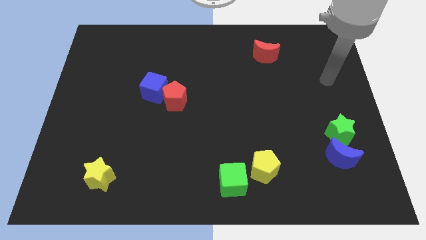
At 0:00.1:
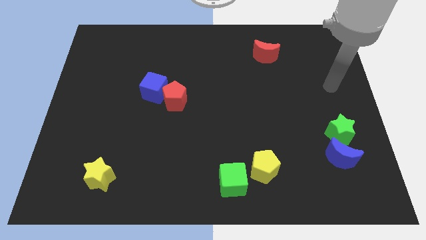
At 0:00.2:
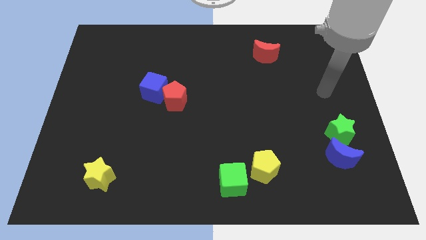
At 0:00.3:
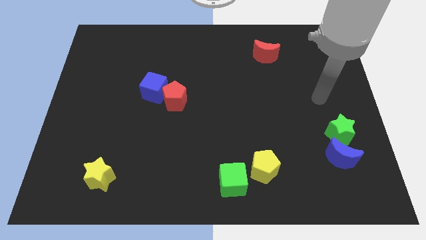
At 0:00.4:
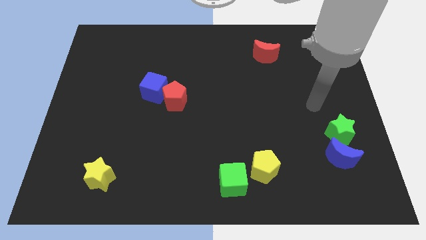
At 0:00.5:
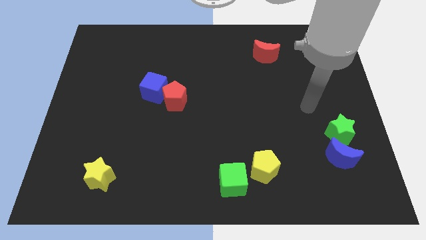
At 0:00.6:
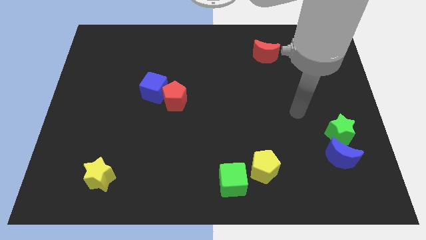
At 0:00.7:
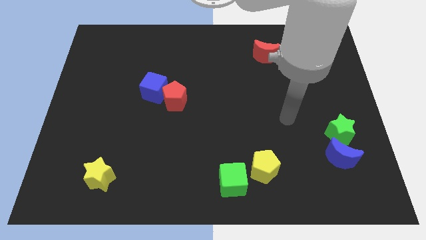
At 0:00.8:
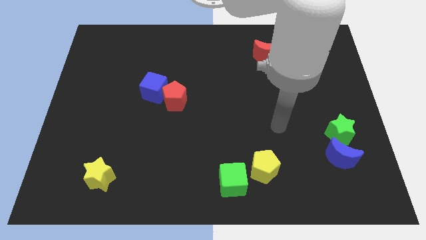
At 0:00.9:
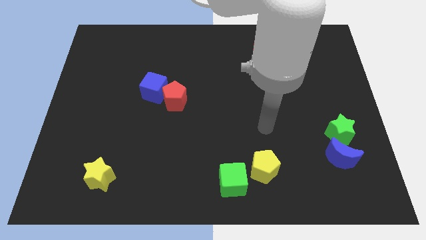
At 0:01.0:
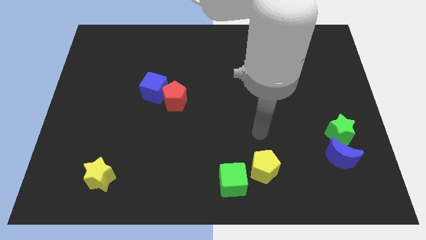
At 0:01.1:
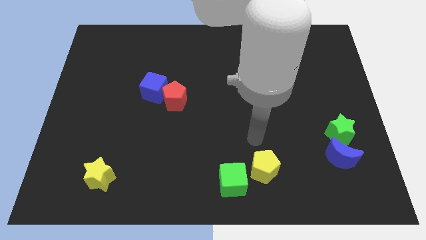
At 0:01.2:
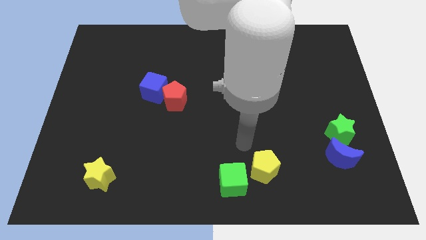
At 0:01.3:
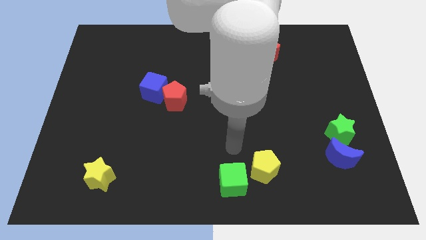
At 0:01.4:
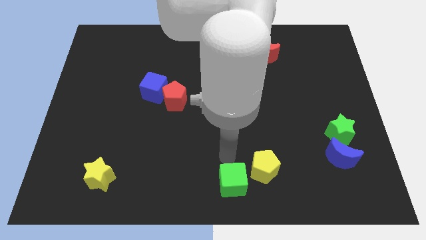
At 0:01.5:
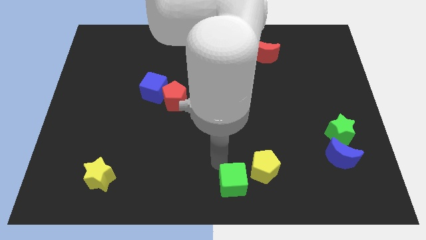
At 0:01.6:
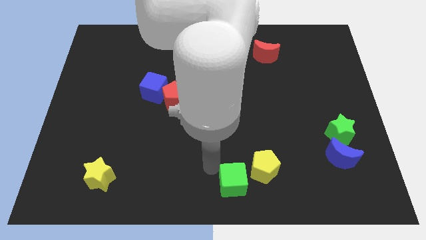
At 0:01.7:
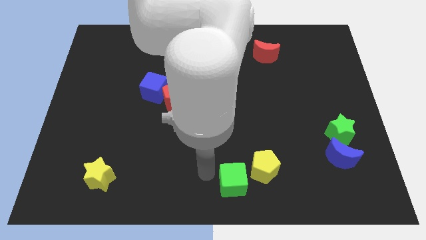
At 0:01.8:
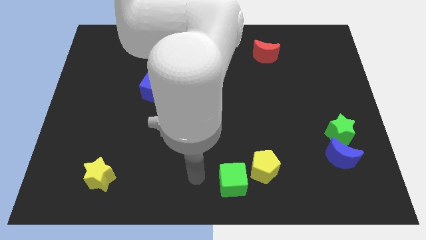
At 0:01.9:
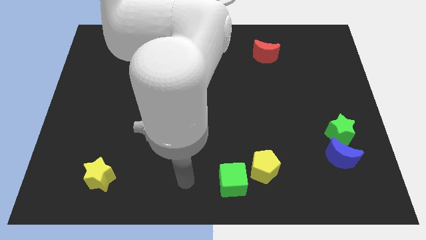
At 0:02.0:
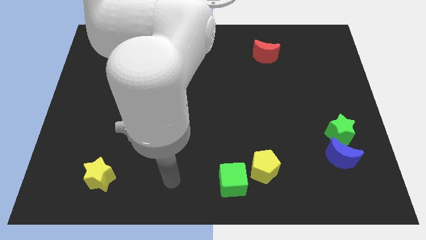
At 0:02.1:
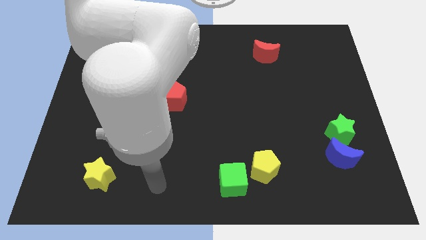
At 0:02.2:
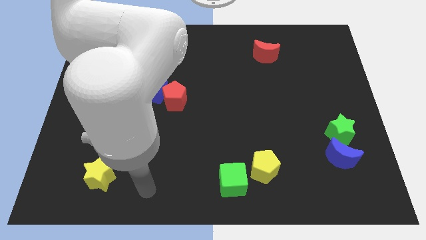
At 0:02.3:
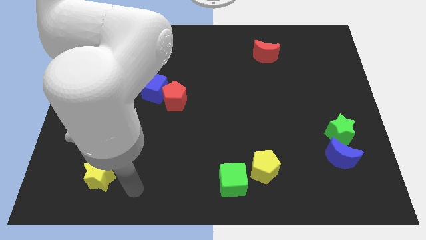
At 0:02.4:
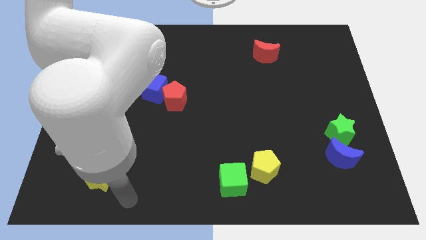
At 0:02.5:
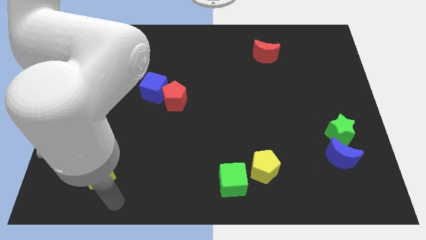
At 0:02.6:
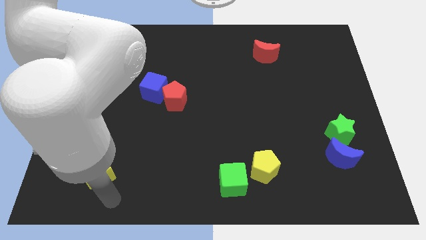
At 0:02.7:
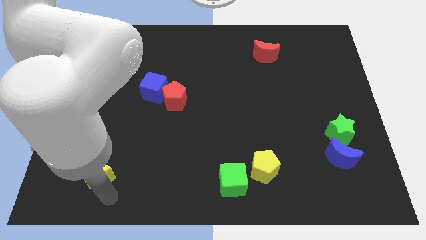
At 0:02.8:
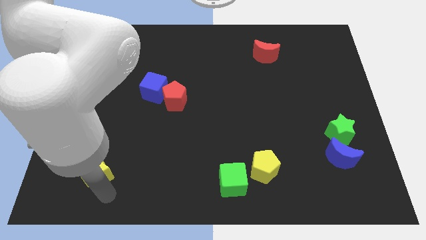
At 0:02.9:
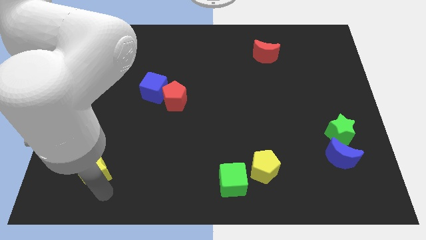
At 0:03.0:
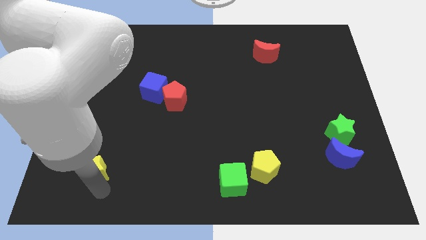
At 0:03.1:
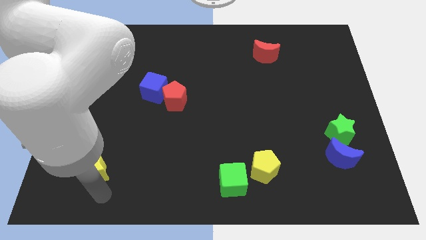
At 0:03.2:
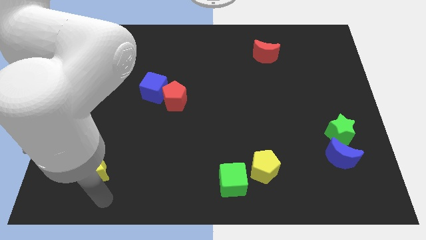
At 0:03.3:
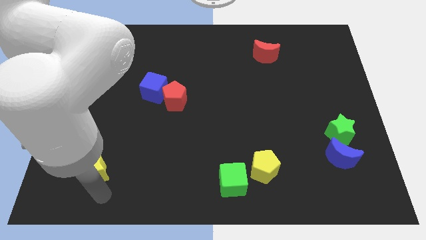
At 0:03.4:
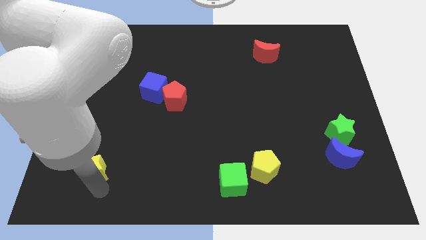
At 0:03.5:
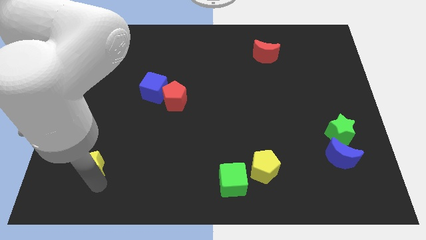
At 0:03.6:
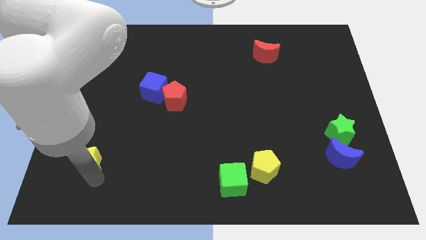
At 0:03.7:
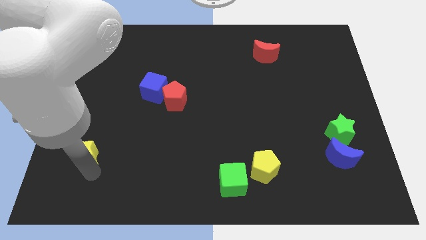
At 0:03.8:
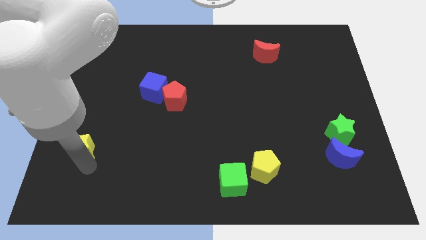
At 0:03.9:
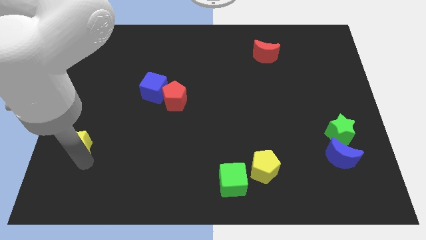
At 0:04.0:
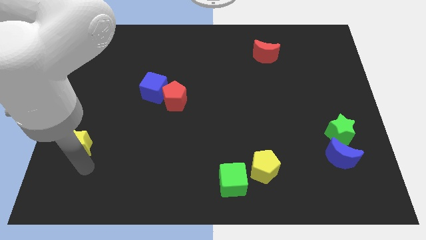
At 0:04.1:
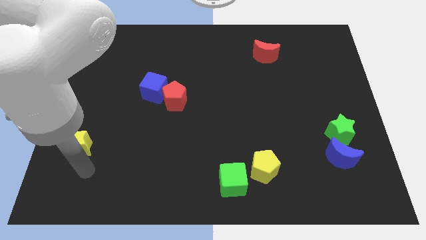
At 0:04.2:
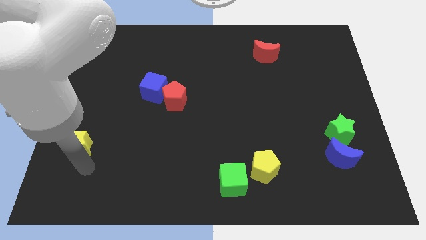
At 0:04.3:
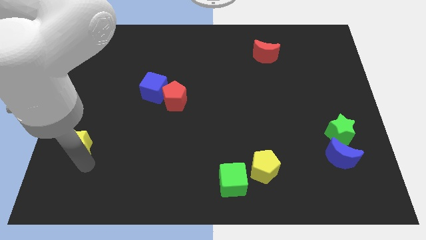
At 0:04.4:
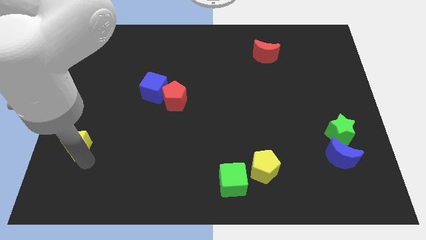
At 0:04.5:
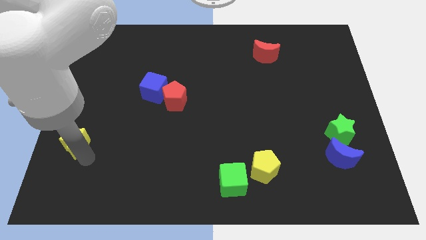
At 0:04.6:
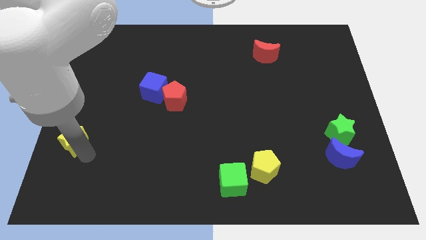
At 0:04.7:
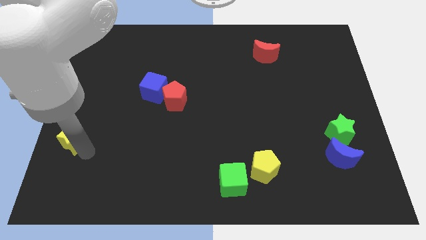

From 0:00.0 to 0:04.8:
move the yellow star to the left side of the board

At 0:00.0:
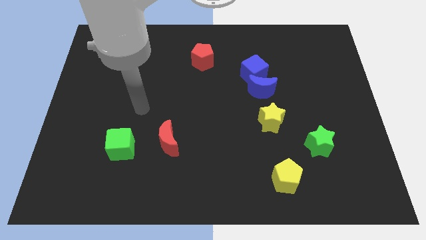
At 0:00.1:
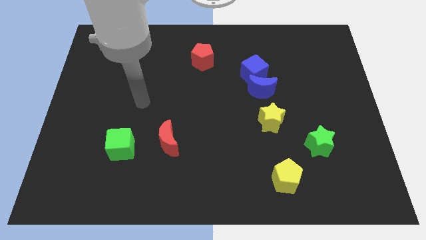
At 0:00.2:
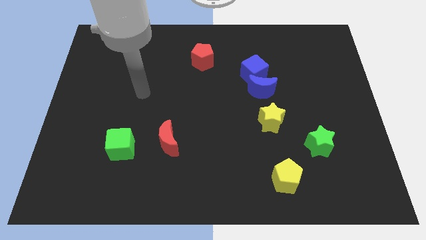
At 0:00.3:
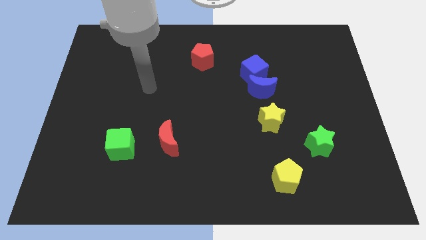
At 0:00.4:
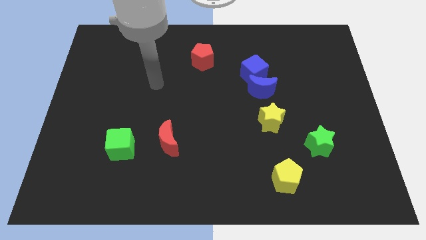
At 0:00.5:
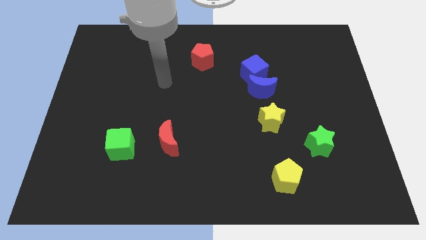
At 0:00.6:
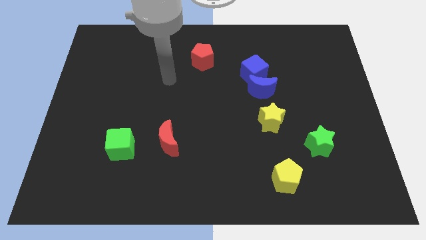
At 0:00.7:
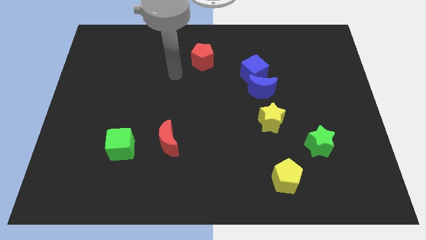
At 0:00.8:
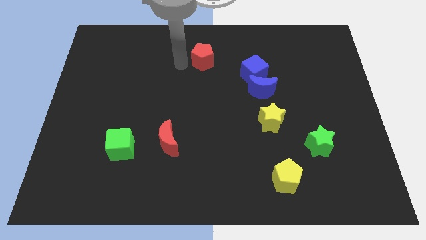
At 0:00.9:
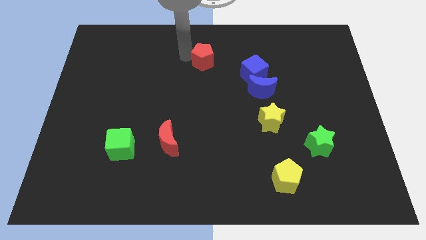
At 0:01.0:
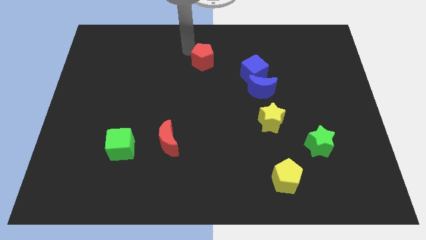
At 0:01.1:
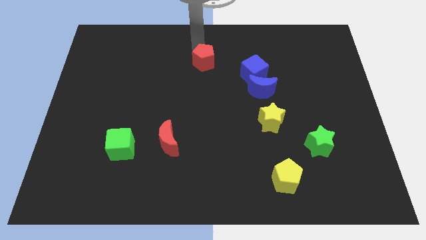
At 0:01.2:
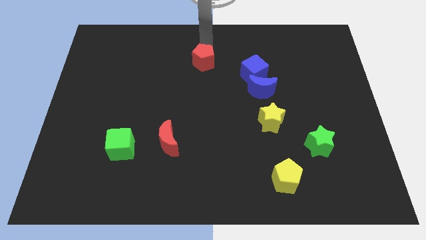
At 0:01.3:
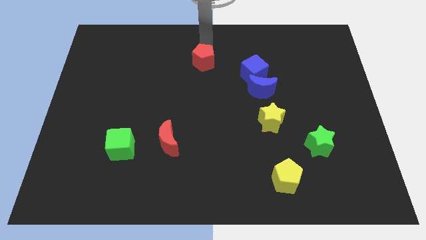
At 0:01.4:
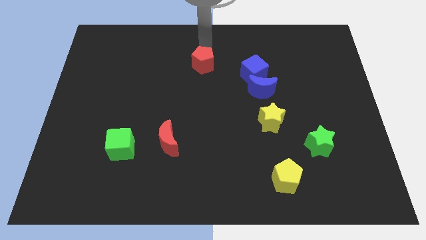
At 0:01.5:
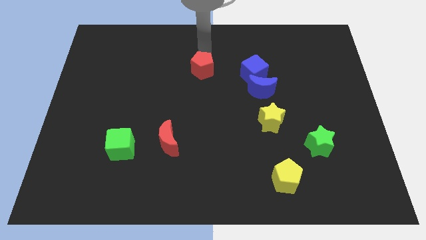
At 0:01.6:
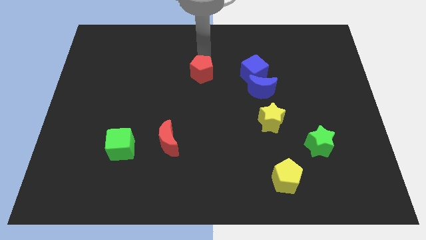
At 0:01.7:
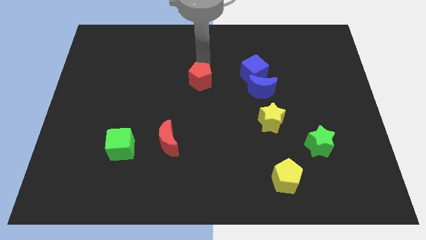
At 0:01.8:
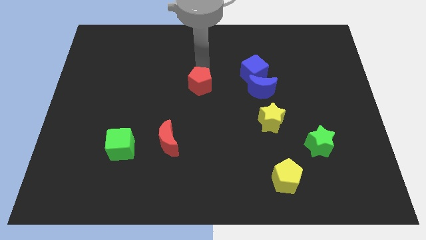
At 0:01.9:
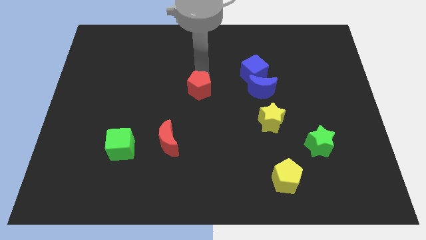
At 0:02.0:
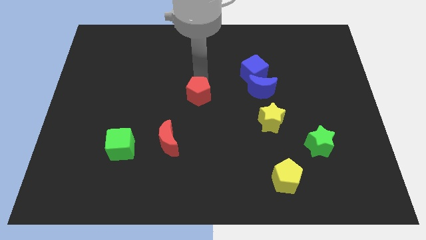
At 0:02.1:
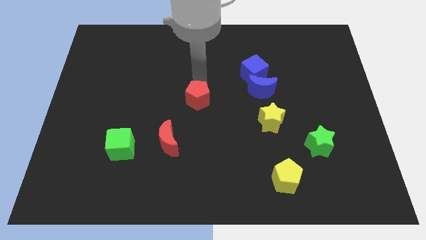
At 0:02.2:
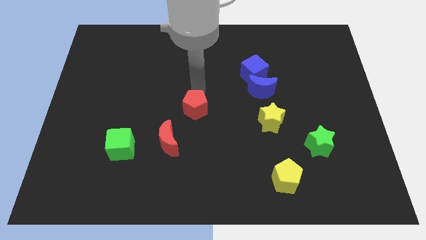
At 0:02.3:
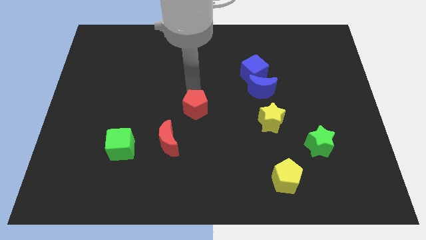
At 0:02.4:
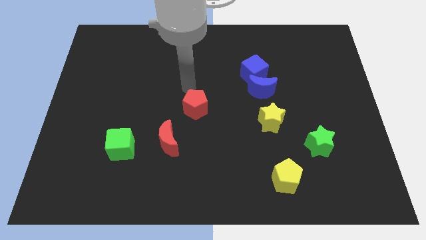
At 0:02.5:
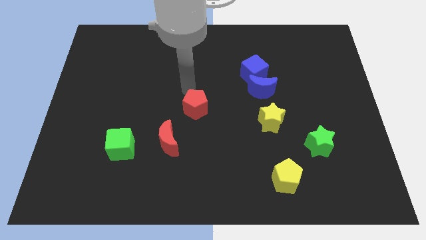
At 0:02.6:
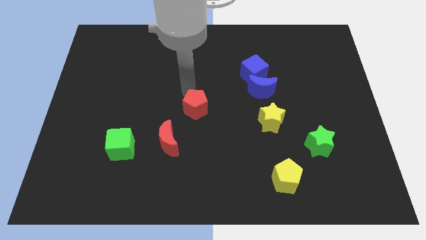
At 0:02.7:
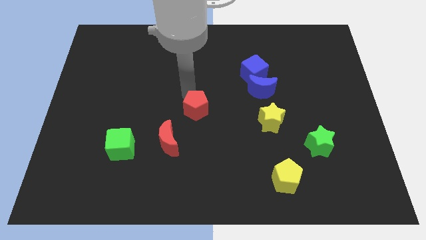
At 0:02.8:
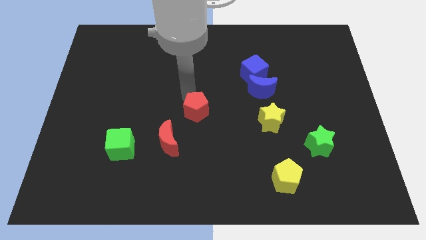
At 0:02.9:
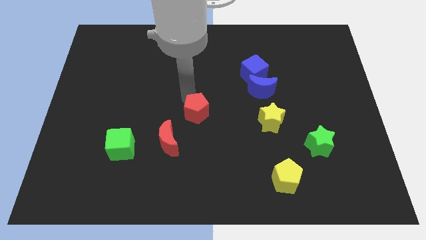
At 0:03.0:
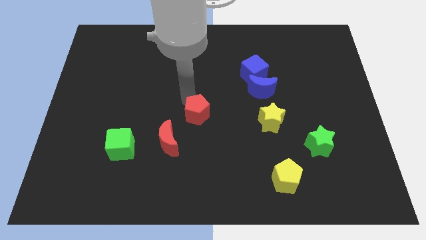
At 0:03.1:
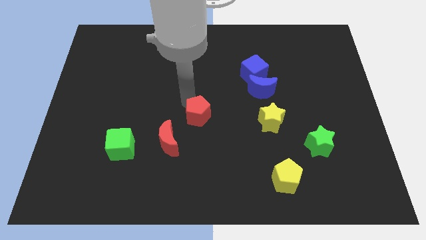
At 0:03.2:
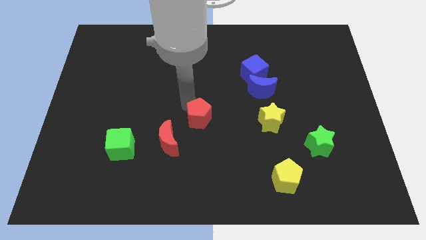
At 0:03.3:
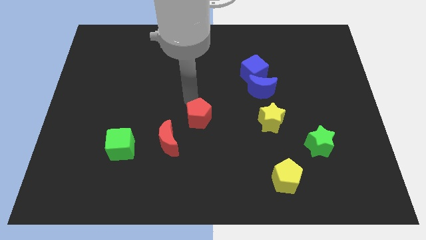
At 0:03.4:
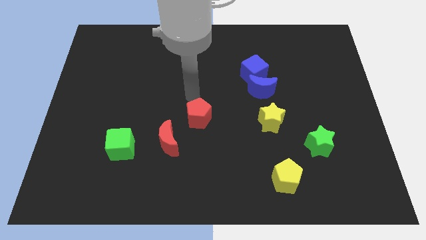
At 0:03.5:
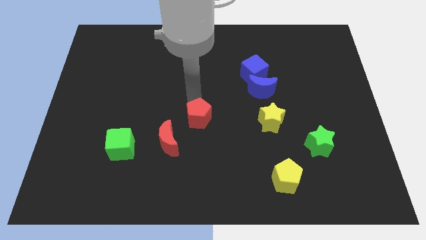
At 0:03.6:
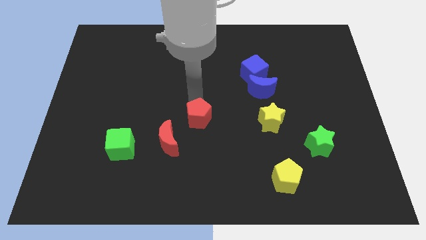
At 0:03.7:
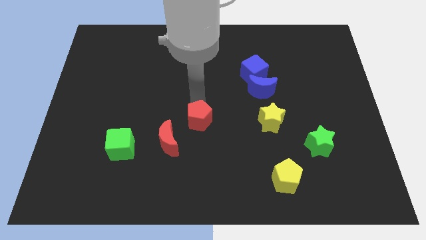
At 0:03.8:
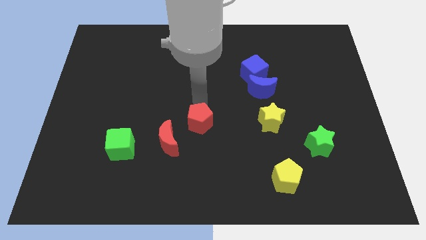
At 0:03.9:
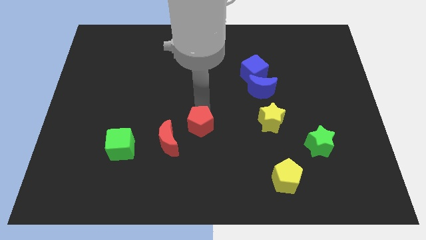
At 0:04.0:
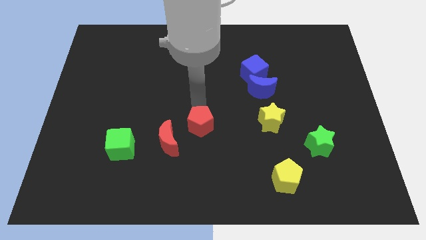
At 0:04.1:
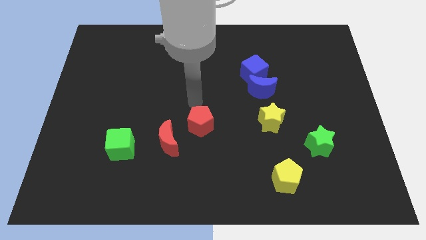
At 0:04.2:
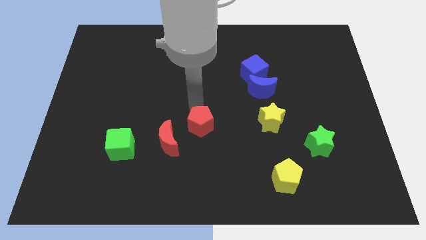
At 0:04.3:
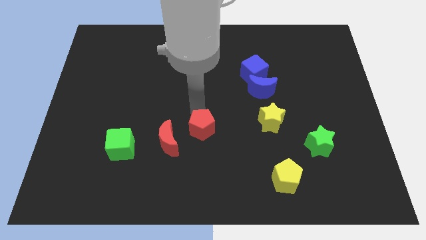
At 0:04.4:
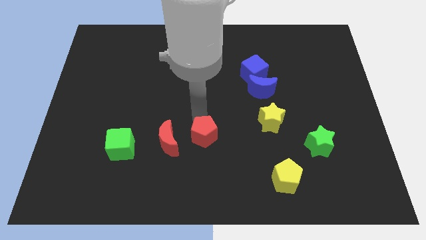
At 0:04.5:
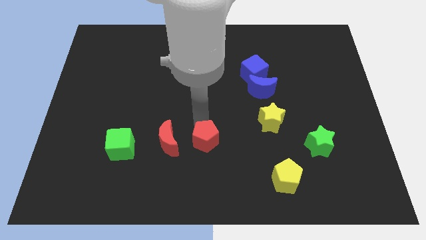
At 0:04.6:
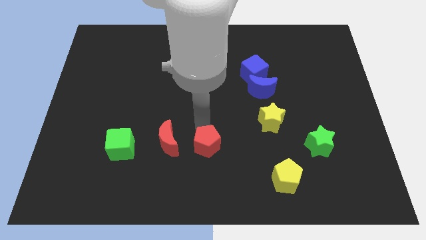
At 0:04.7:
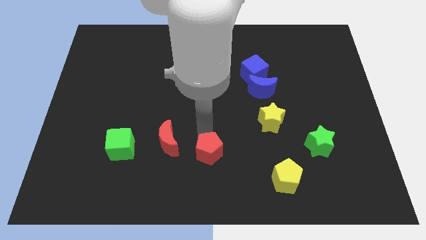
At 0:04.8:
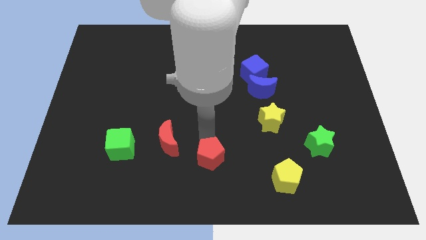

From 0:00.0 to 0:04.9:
move the red pentagon to the bottom
